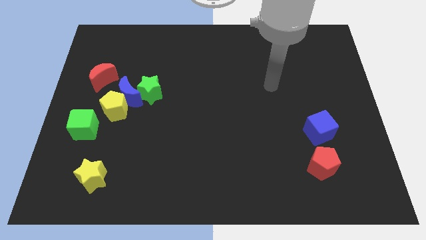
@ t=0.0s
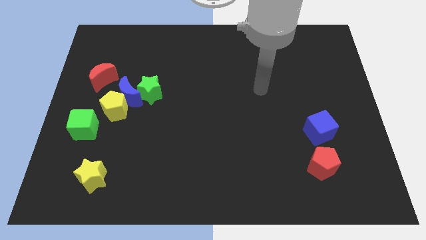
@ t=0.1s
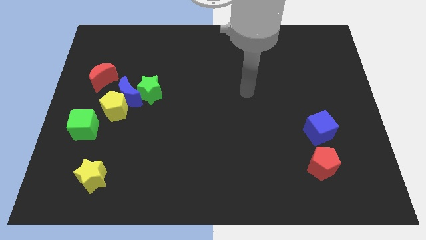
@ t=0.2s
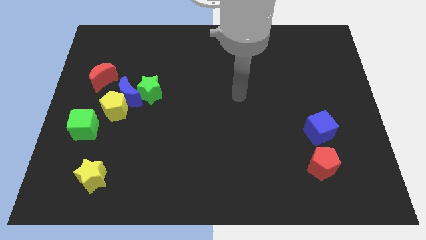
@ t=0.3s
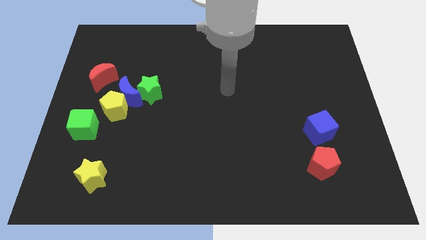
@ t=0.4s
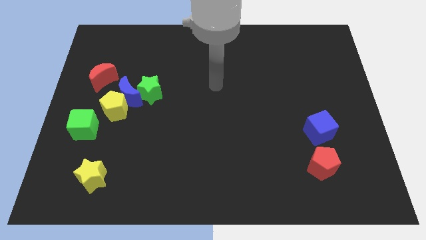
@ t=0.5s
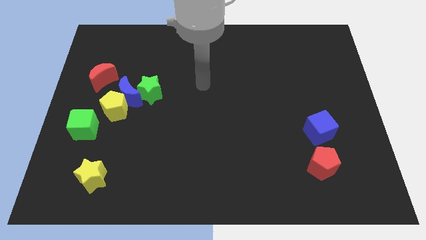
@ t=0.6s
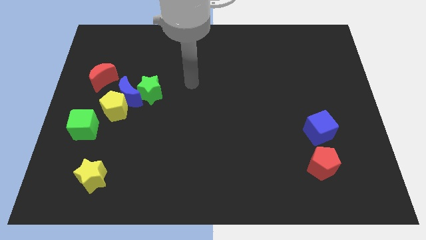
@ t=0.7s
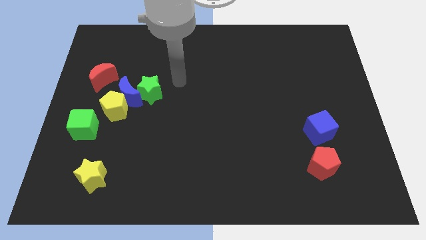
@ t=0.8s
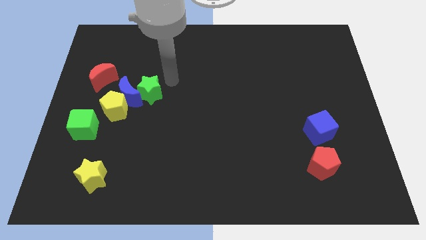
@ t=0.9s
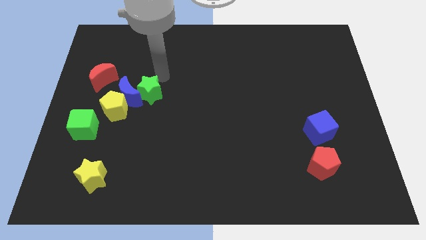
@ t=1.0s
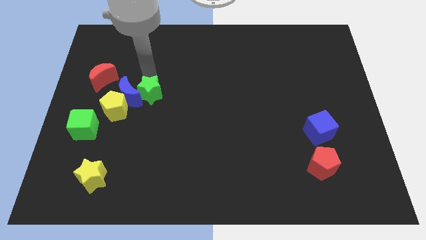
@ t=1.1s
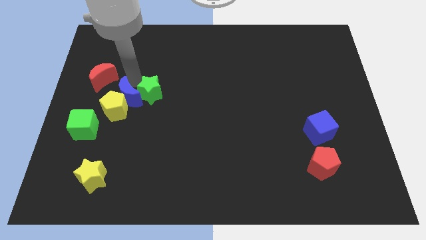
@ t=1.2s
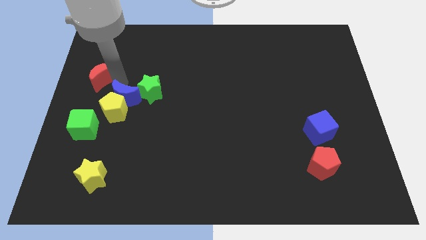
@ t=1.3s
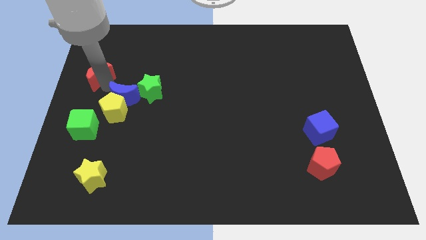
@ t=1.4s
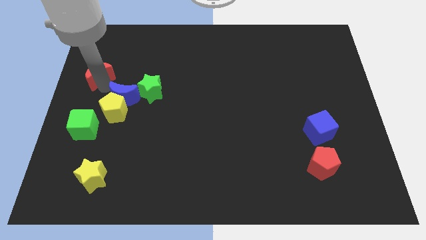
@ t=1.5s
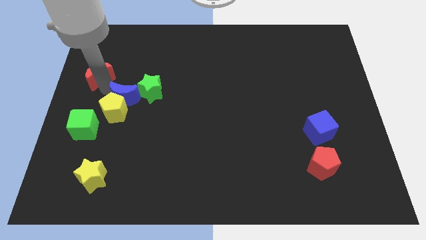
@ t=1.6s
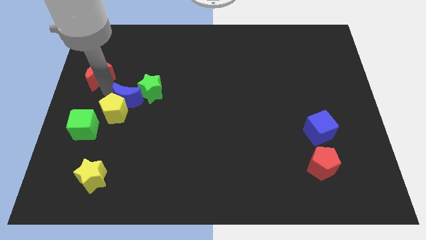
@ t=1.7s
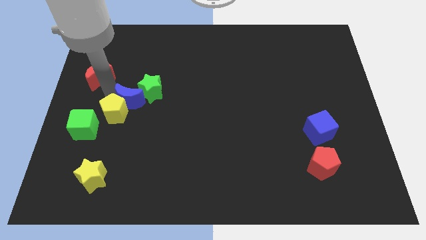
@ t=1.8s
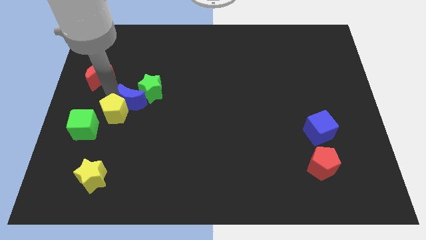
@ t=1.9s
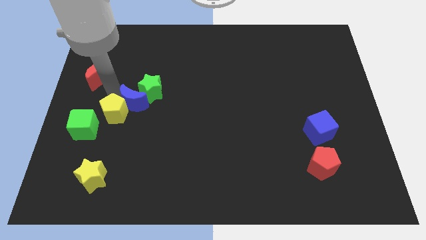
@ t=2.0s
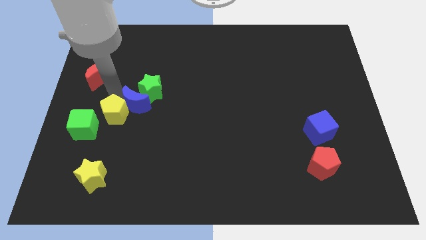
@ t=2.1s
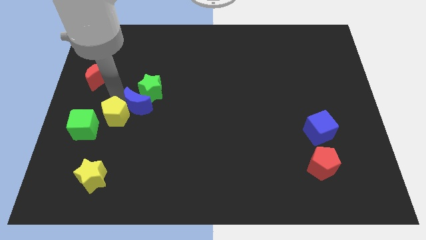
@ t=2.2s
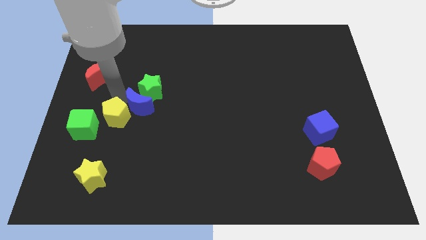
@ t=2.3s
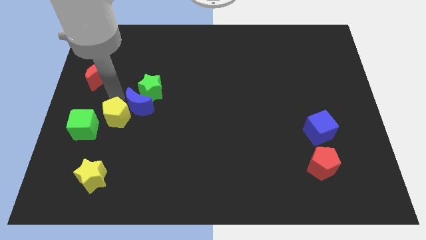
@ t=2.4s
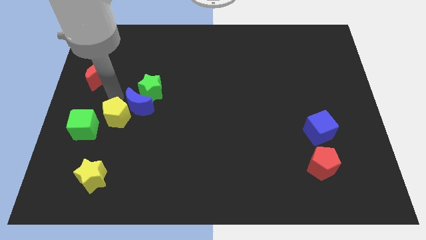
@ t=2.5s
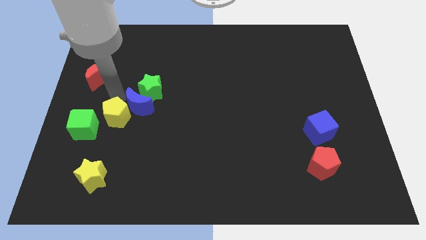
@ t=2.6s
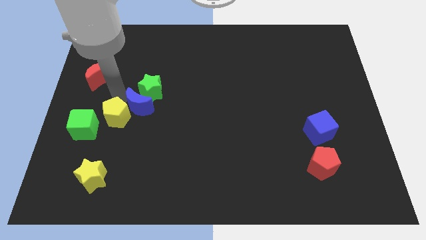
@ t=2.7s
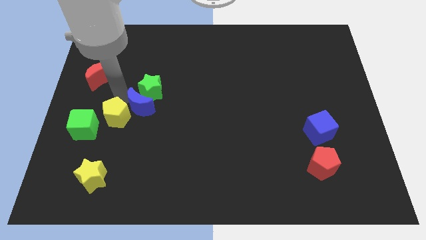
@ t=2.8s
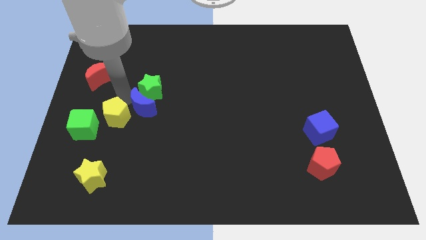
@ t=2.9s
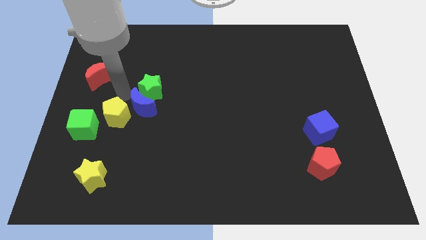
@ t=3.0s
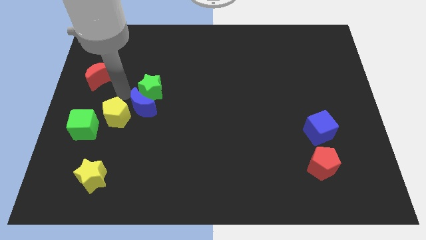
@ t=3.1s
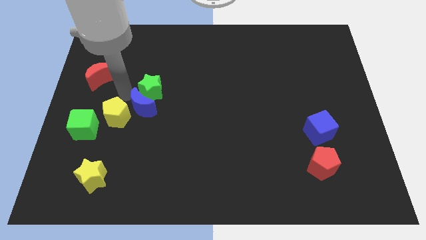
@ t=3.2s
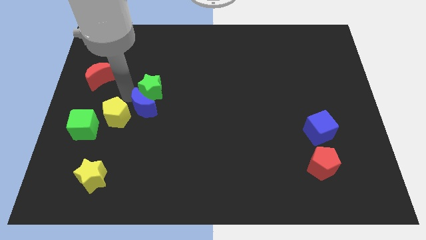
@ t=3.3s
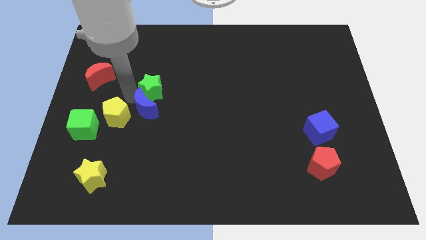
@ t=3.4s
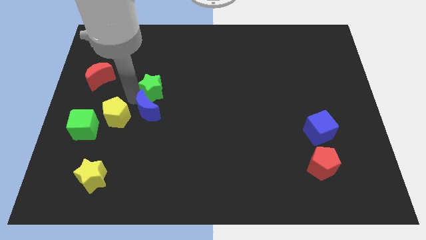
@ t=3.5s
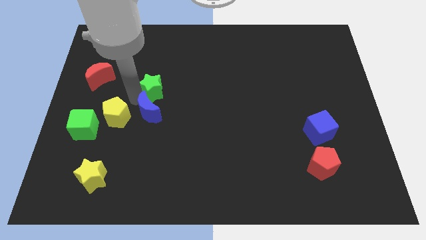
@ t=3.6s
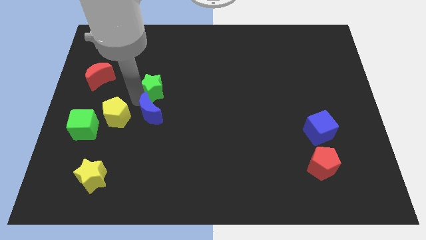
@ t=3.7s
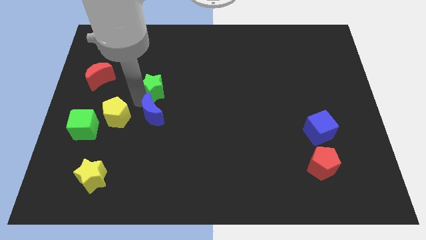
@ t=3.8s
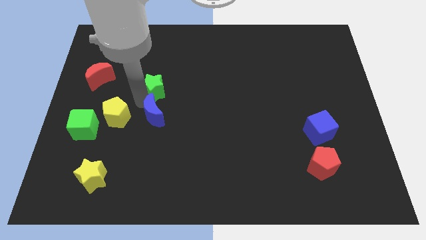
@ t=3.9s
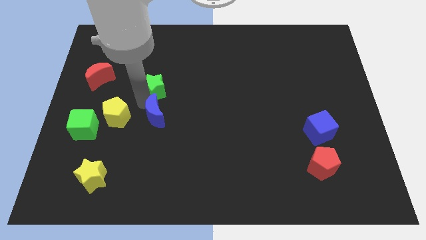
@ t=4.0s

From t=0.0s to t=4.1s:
move the blue moon away from the group of blocks

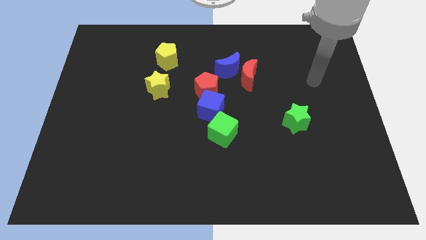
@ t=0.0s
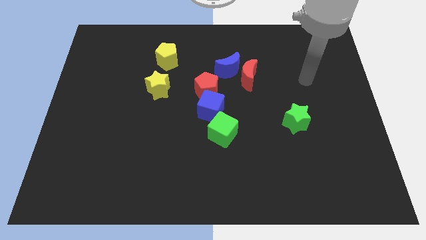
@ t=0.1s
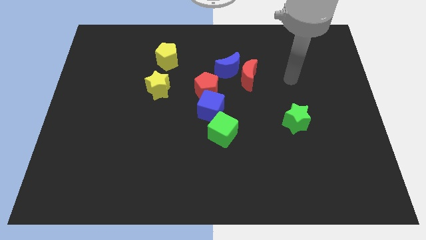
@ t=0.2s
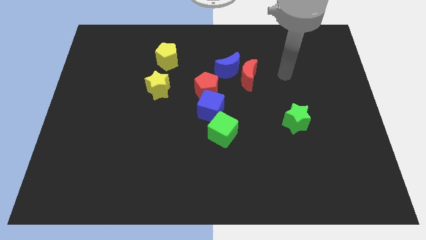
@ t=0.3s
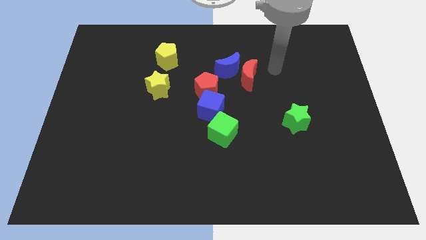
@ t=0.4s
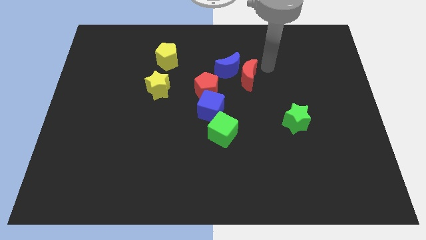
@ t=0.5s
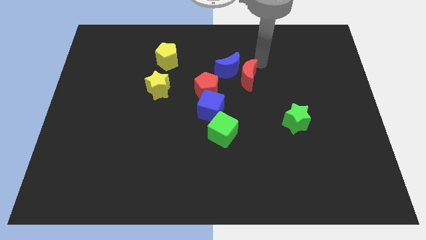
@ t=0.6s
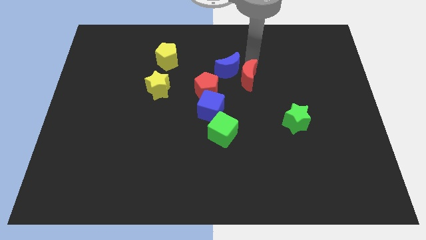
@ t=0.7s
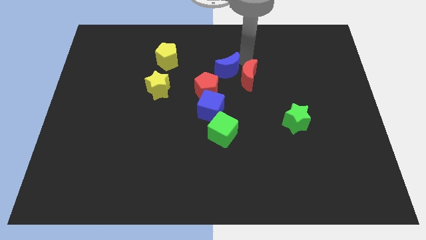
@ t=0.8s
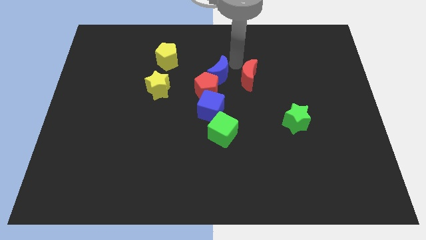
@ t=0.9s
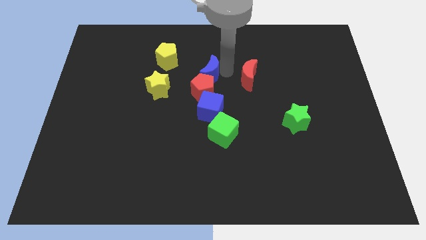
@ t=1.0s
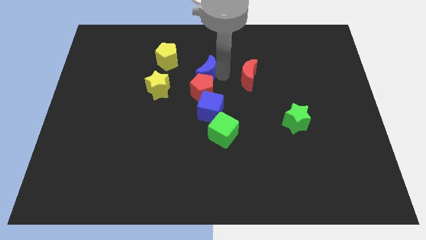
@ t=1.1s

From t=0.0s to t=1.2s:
move the red moon away from the blue moon

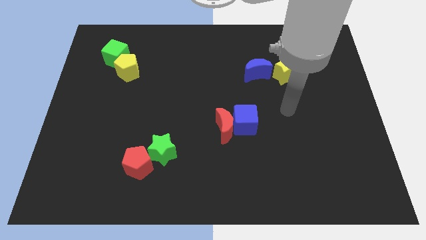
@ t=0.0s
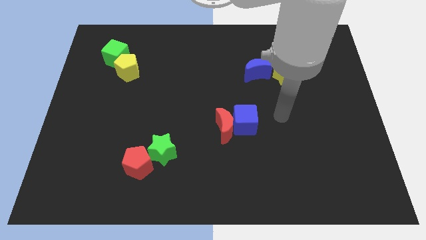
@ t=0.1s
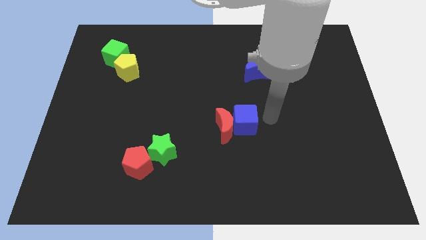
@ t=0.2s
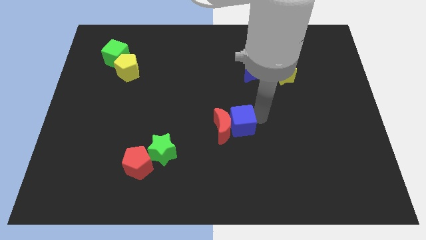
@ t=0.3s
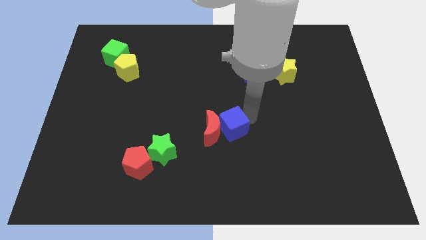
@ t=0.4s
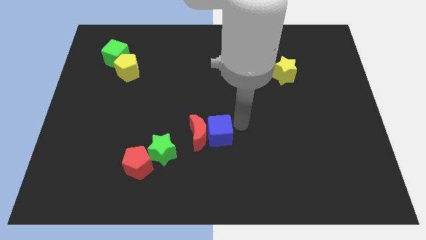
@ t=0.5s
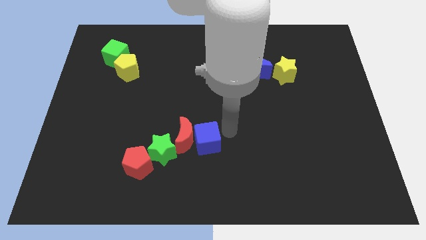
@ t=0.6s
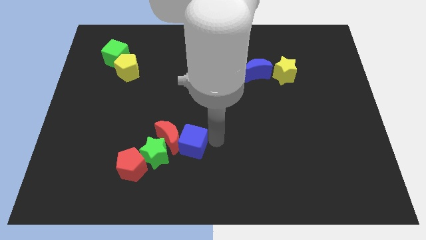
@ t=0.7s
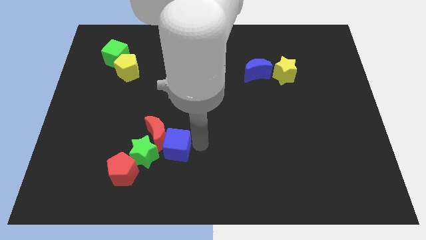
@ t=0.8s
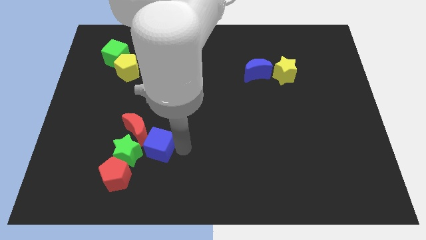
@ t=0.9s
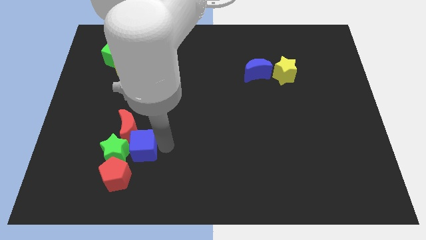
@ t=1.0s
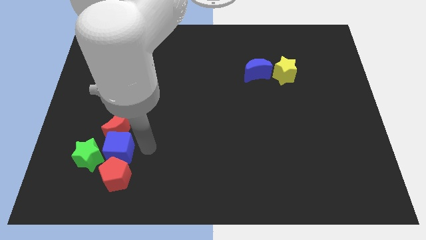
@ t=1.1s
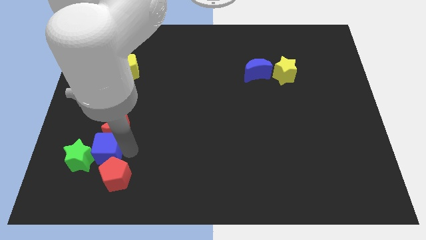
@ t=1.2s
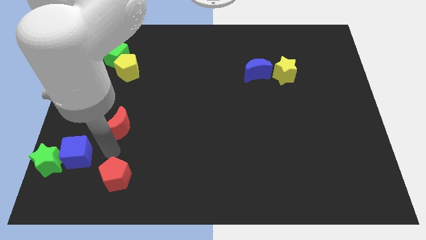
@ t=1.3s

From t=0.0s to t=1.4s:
pull the red moon apart from the blue cube

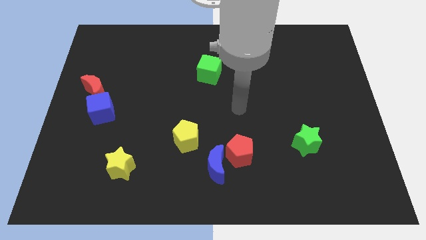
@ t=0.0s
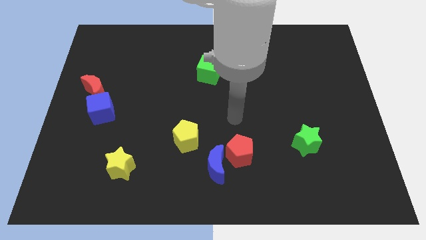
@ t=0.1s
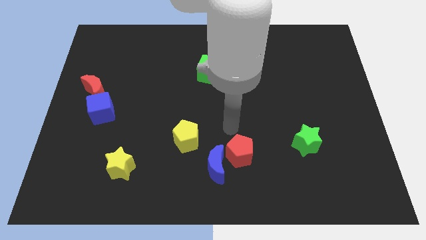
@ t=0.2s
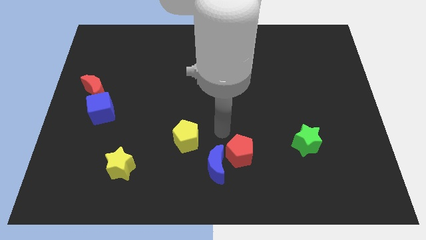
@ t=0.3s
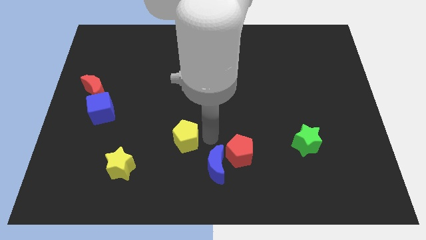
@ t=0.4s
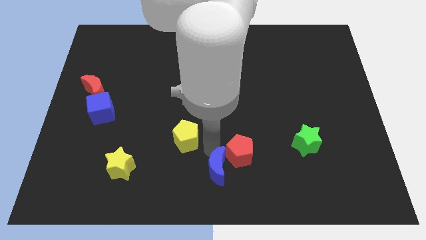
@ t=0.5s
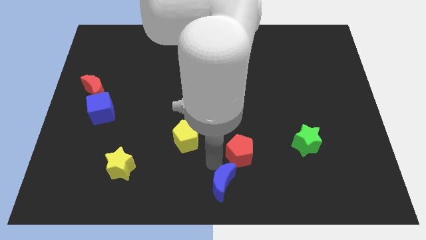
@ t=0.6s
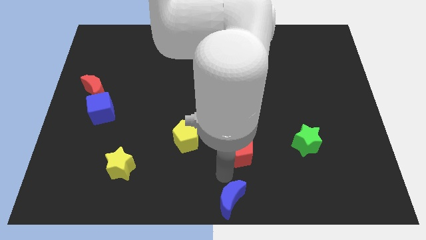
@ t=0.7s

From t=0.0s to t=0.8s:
pull the red pentagon apart from the blue moon

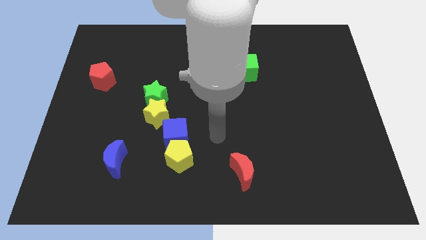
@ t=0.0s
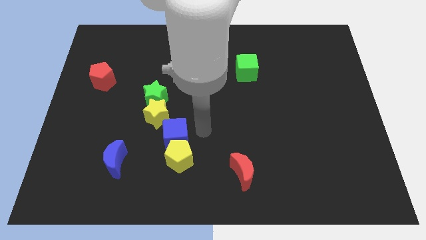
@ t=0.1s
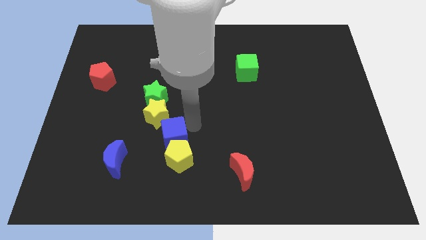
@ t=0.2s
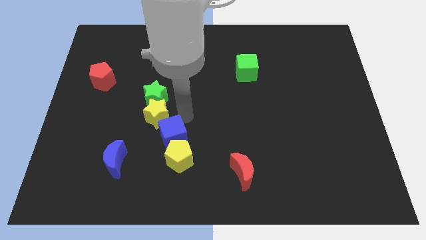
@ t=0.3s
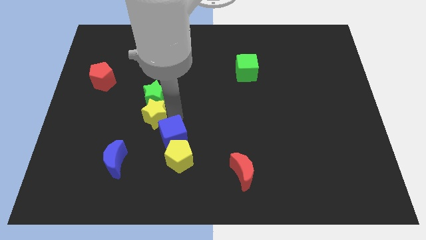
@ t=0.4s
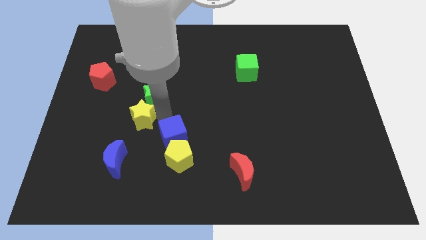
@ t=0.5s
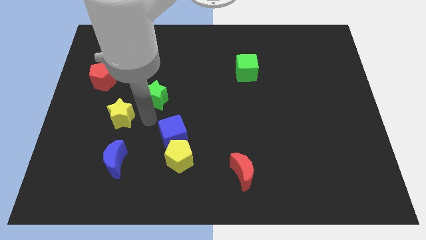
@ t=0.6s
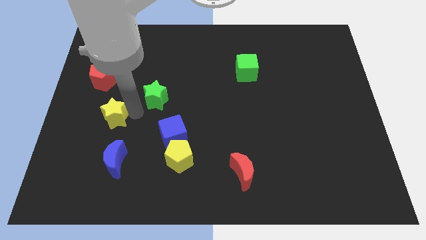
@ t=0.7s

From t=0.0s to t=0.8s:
separate the green star from the yellow star

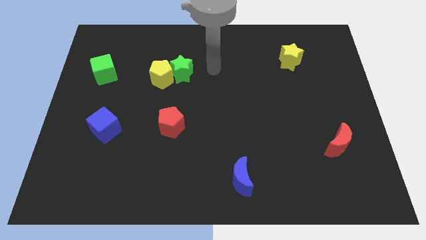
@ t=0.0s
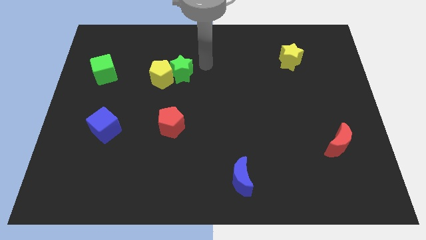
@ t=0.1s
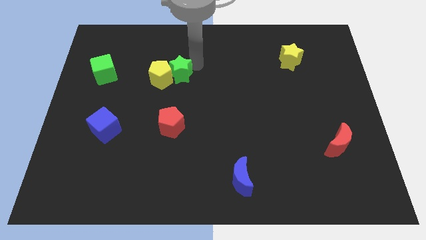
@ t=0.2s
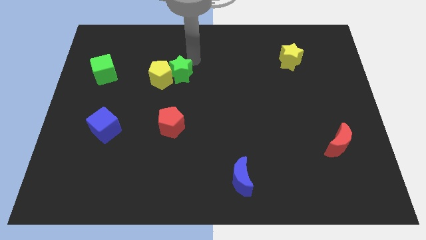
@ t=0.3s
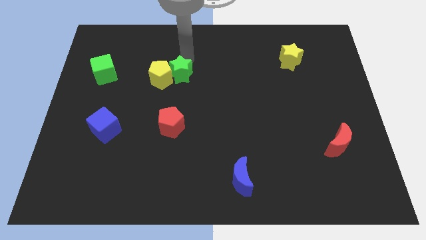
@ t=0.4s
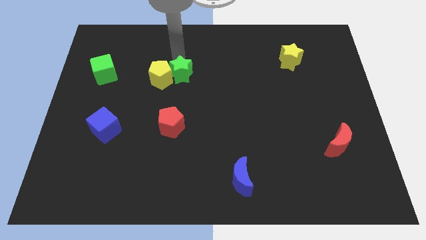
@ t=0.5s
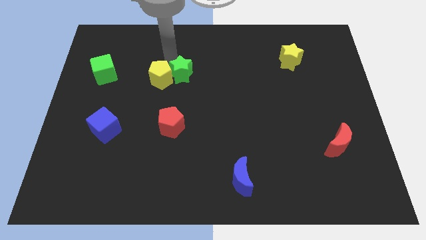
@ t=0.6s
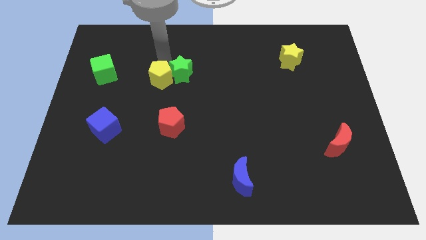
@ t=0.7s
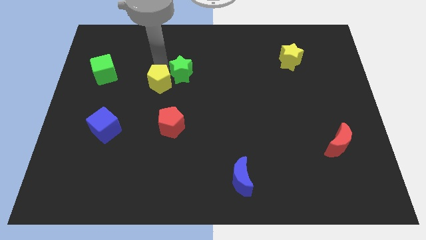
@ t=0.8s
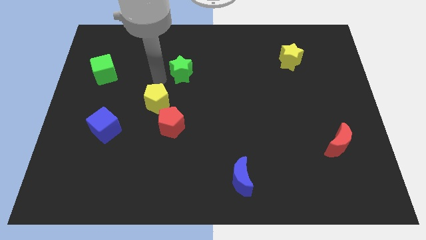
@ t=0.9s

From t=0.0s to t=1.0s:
move the green star away from the yellow pentagon
